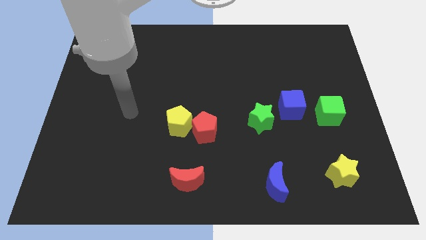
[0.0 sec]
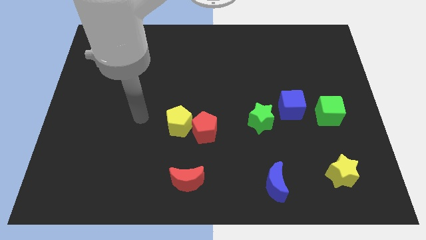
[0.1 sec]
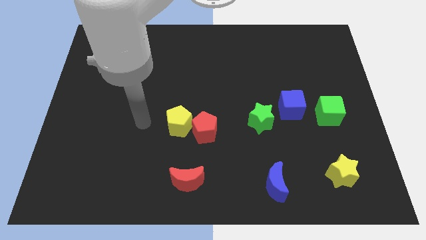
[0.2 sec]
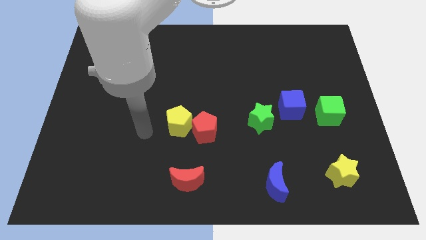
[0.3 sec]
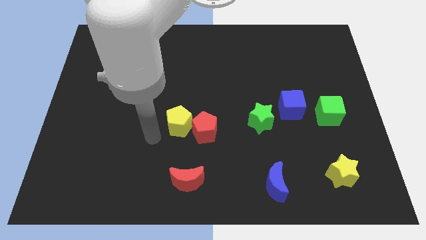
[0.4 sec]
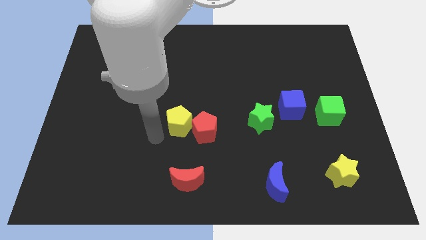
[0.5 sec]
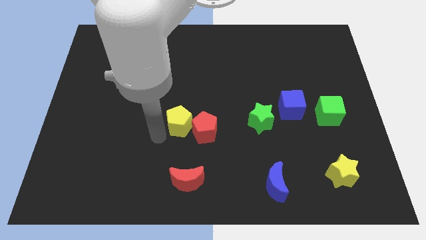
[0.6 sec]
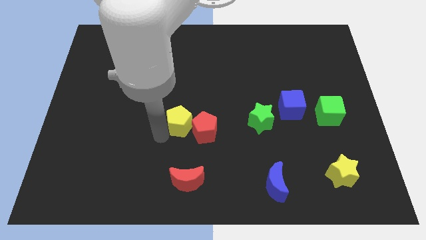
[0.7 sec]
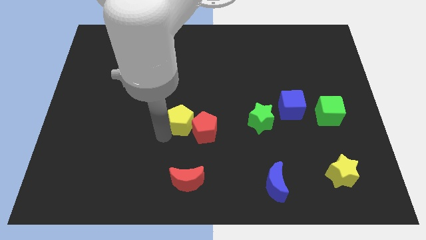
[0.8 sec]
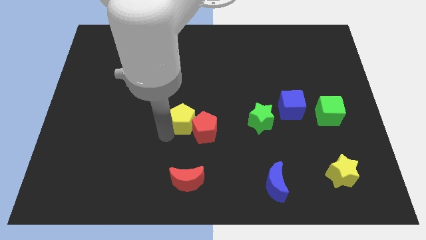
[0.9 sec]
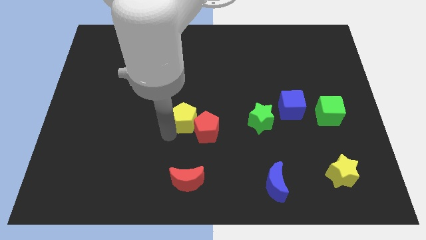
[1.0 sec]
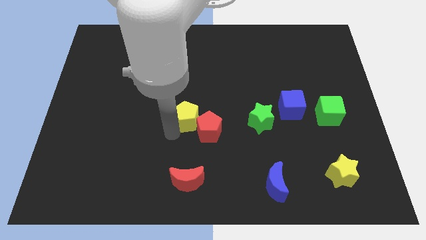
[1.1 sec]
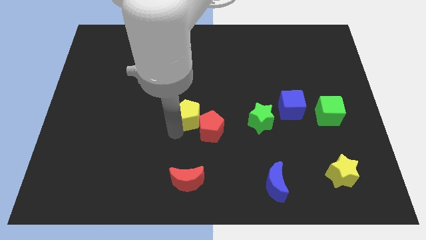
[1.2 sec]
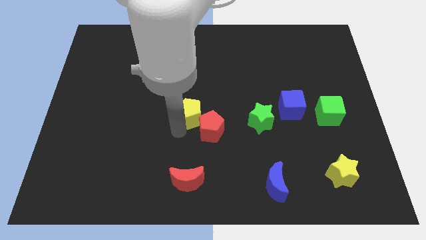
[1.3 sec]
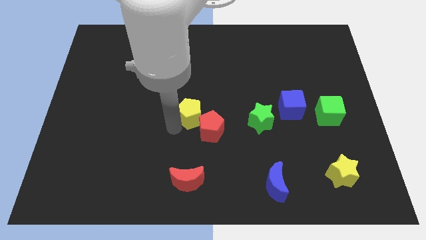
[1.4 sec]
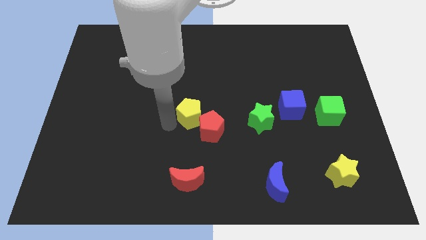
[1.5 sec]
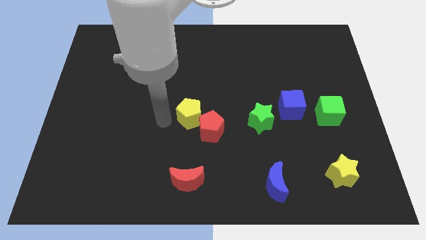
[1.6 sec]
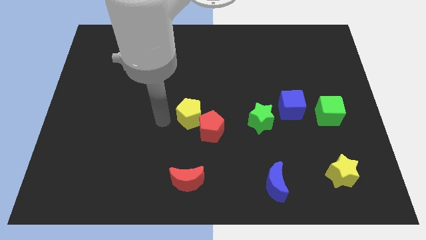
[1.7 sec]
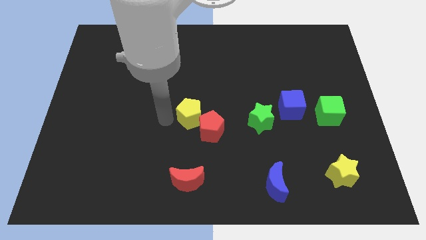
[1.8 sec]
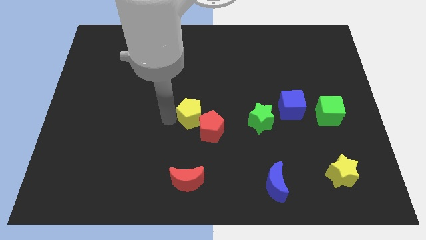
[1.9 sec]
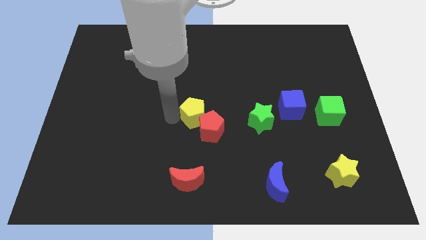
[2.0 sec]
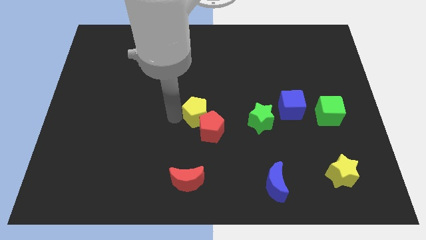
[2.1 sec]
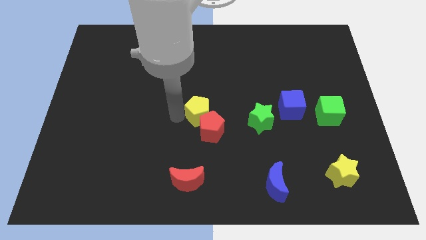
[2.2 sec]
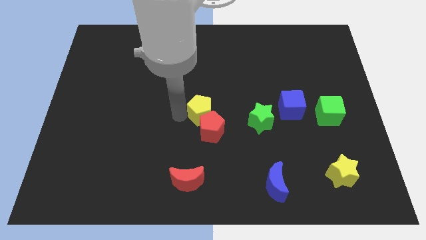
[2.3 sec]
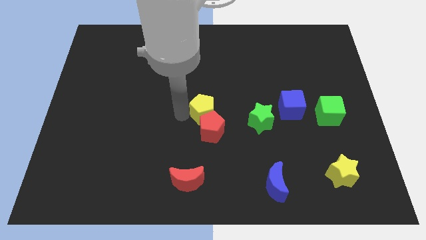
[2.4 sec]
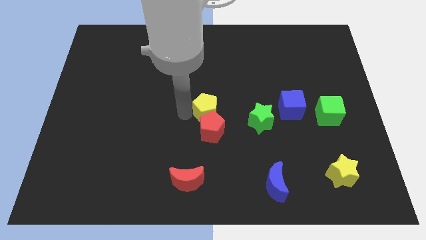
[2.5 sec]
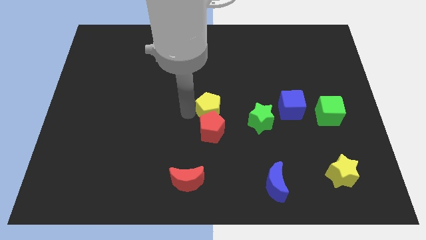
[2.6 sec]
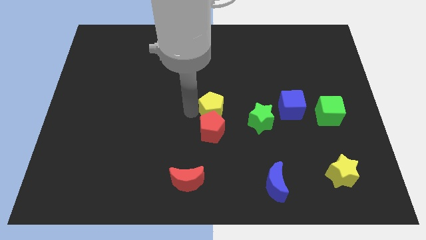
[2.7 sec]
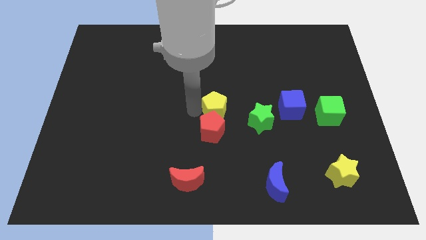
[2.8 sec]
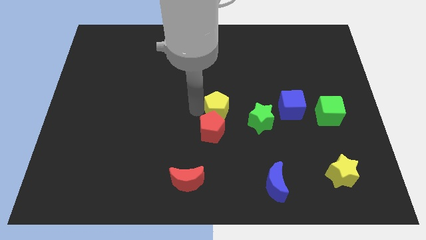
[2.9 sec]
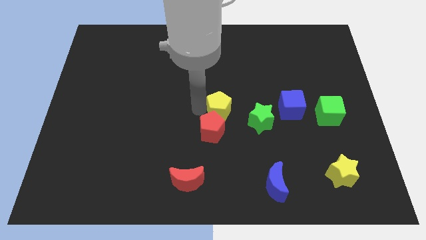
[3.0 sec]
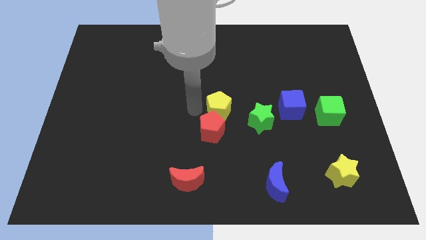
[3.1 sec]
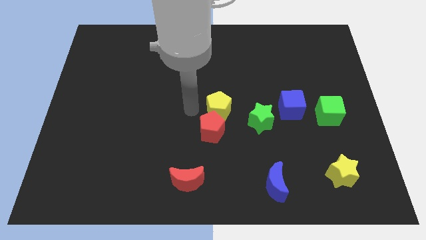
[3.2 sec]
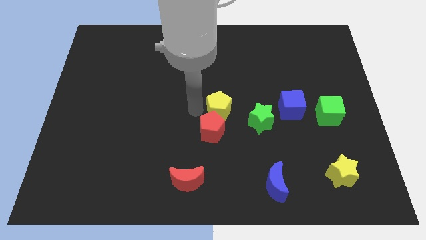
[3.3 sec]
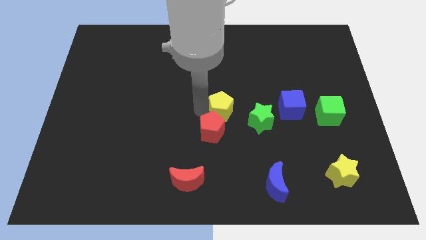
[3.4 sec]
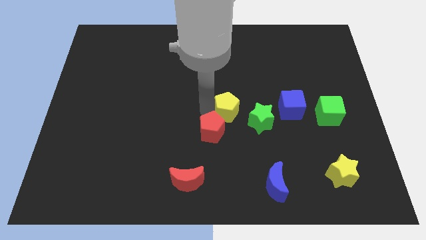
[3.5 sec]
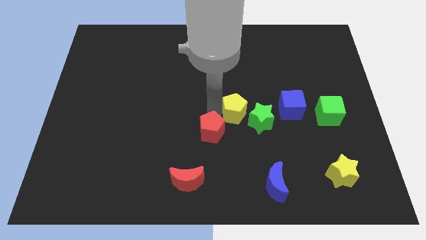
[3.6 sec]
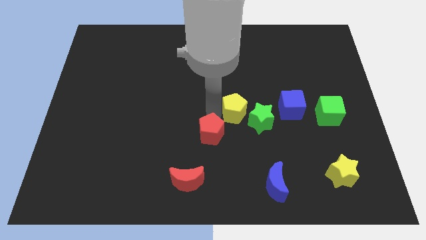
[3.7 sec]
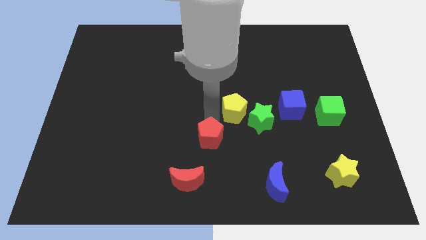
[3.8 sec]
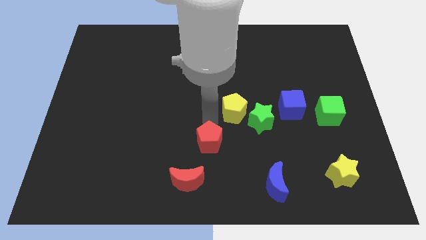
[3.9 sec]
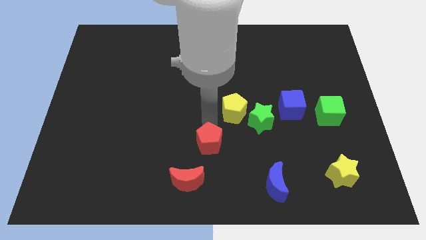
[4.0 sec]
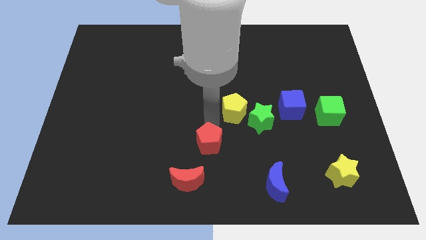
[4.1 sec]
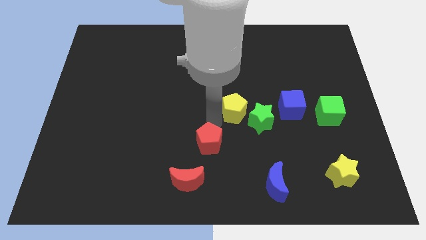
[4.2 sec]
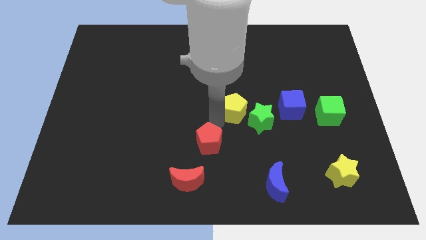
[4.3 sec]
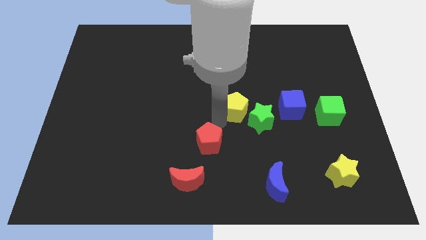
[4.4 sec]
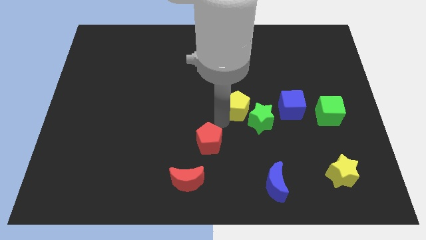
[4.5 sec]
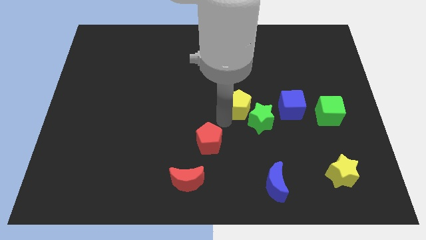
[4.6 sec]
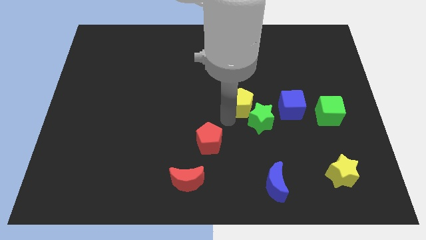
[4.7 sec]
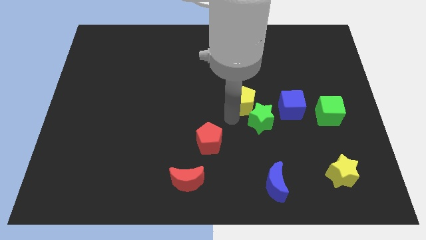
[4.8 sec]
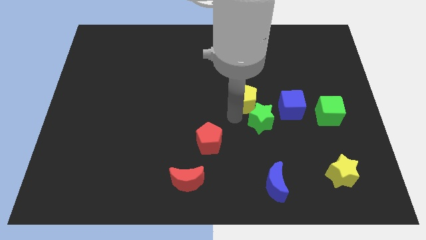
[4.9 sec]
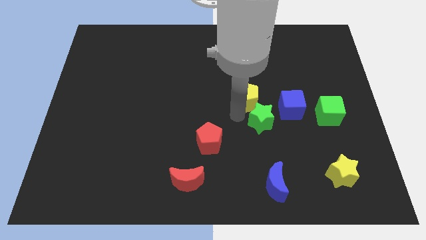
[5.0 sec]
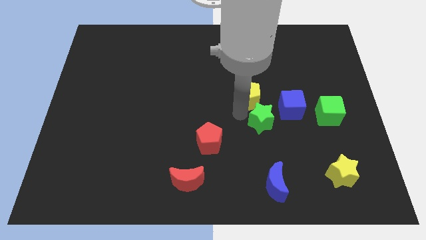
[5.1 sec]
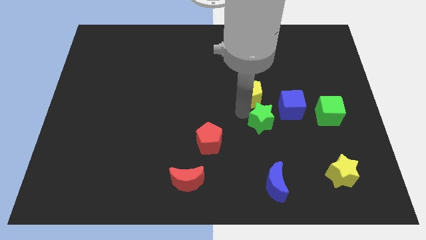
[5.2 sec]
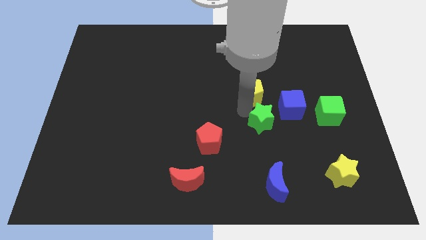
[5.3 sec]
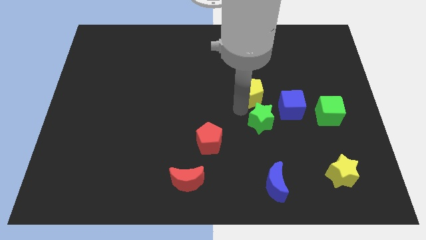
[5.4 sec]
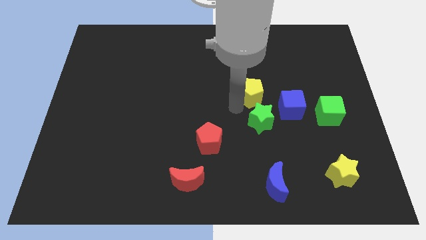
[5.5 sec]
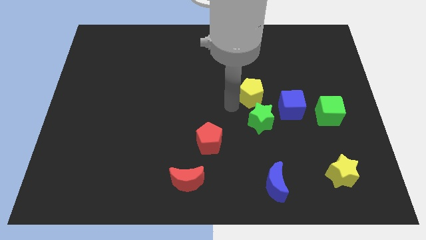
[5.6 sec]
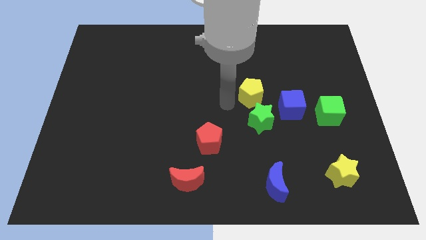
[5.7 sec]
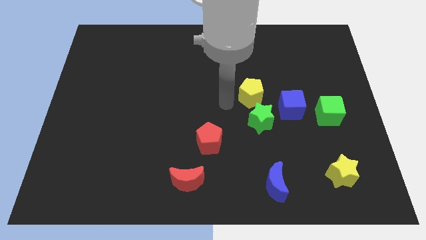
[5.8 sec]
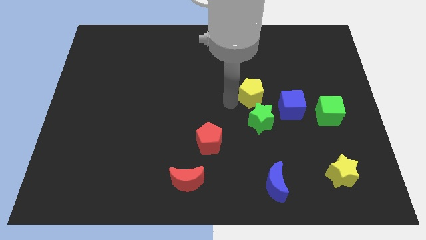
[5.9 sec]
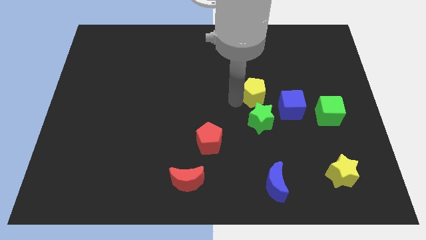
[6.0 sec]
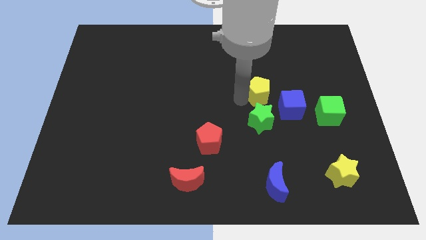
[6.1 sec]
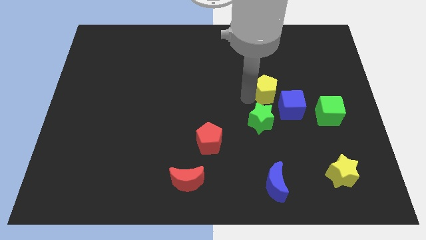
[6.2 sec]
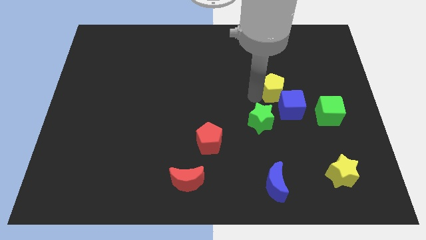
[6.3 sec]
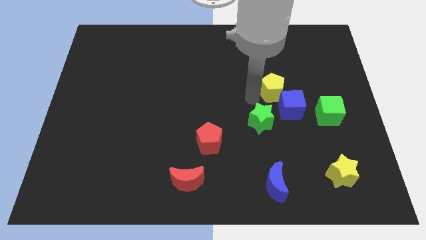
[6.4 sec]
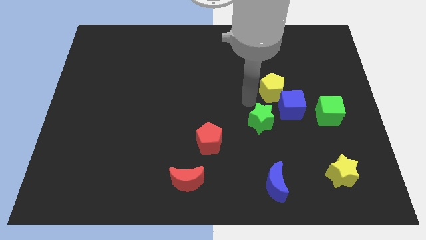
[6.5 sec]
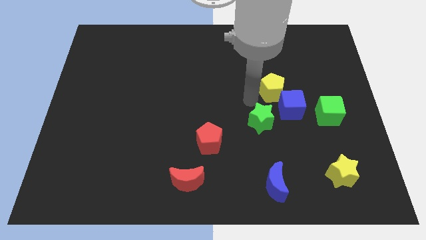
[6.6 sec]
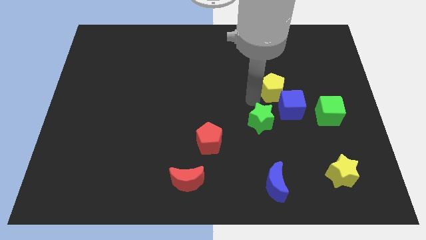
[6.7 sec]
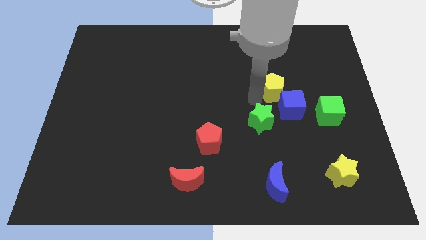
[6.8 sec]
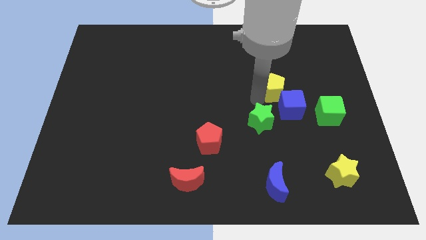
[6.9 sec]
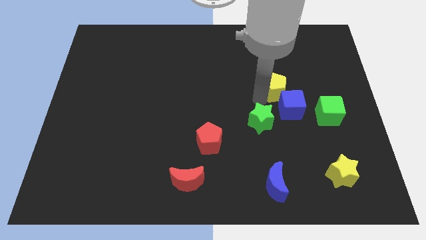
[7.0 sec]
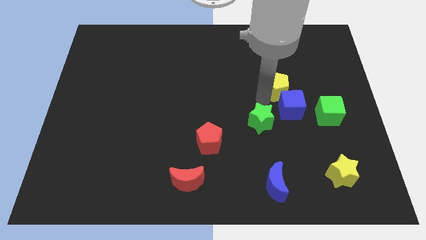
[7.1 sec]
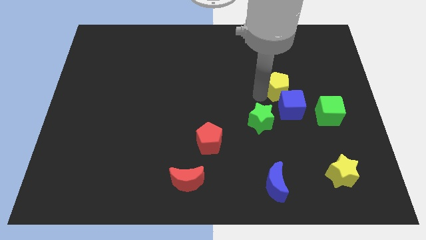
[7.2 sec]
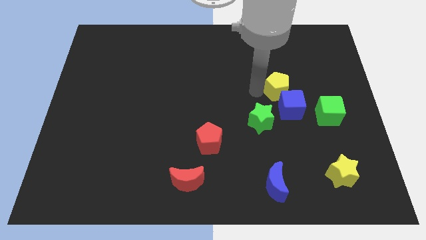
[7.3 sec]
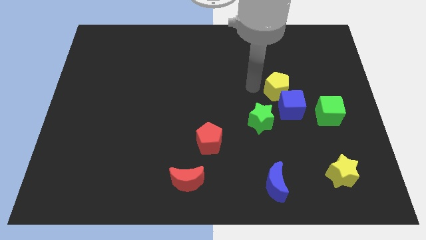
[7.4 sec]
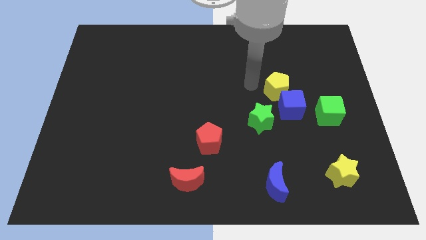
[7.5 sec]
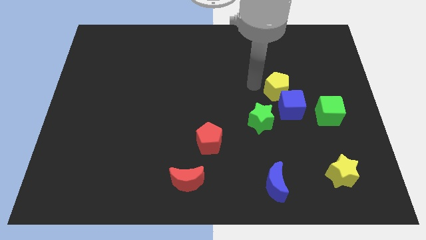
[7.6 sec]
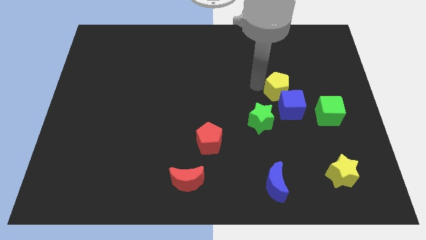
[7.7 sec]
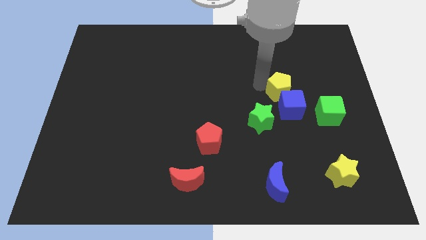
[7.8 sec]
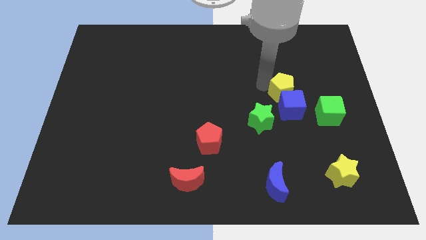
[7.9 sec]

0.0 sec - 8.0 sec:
put the yellow pentagon to the top left of the green cube
